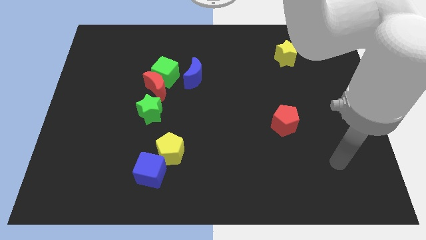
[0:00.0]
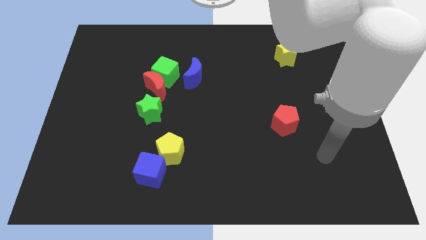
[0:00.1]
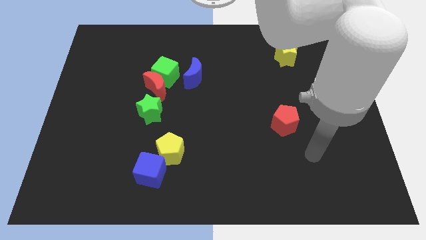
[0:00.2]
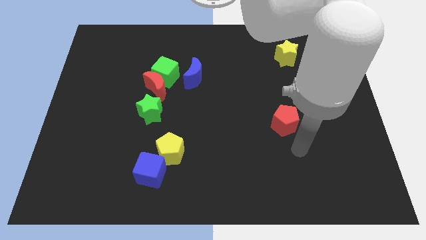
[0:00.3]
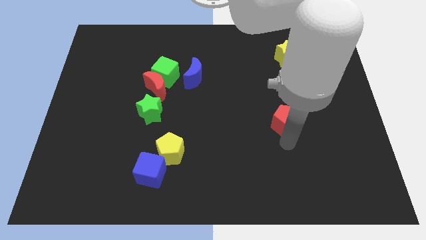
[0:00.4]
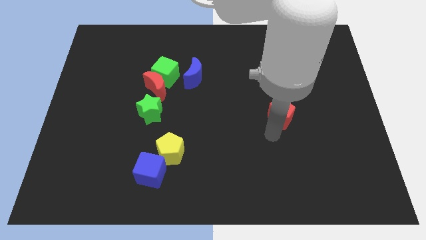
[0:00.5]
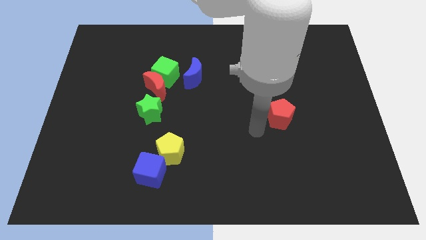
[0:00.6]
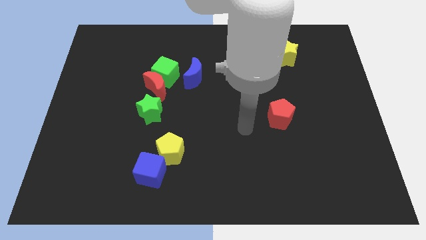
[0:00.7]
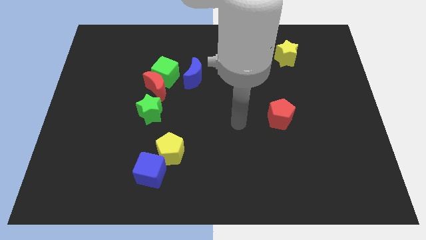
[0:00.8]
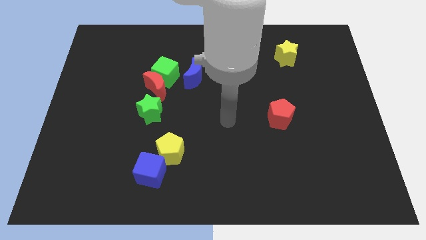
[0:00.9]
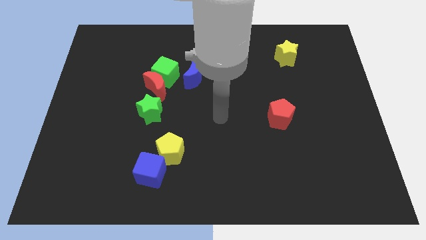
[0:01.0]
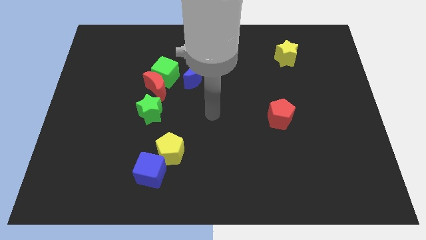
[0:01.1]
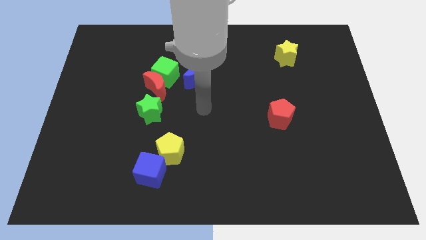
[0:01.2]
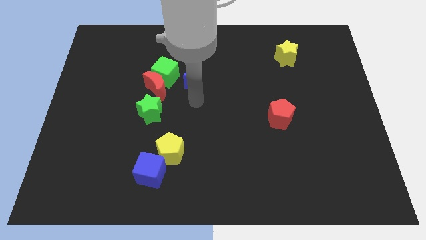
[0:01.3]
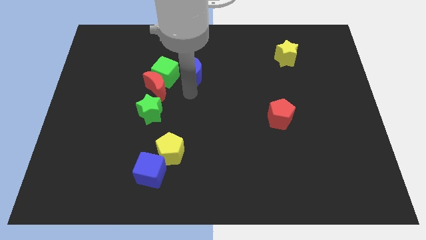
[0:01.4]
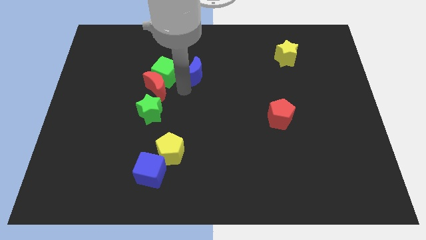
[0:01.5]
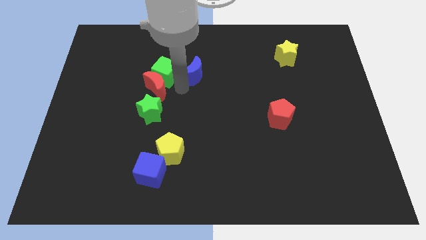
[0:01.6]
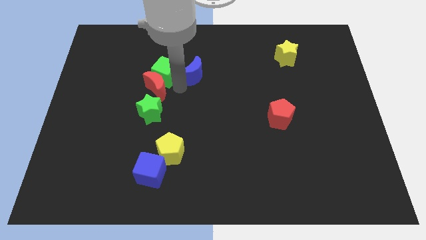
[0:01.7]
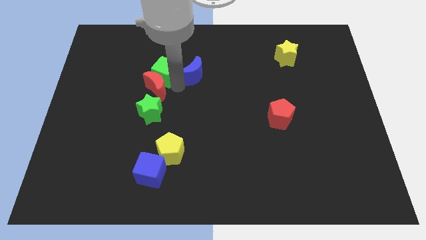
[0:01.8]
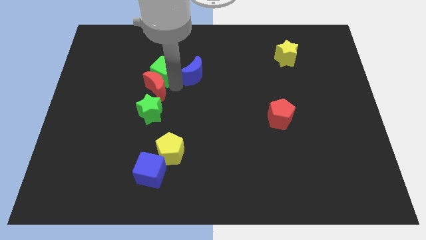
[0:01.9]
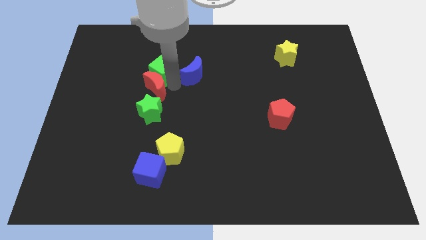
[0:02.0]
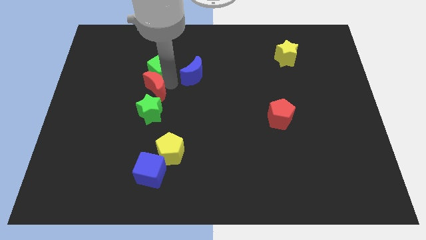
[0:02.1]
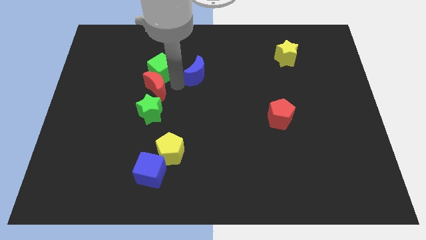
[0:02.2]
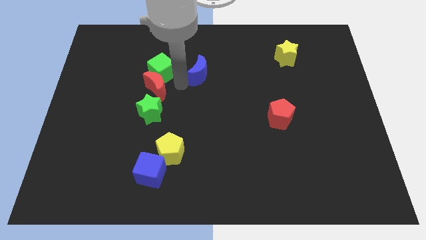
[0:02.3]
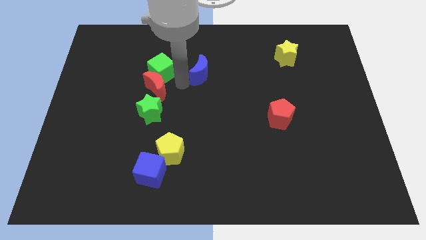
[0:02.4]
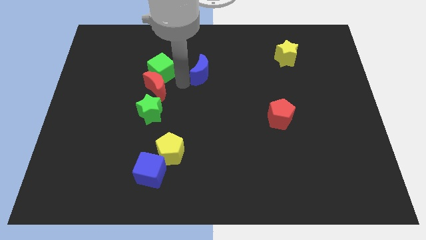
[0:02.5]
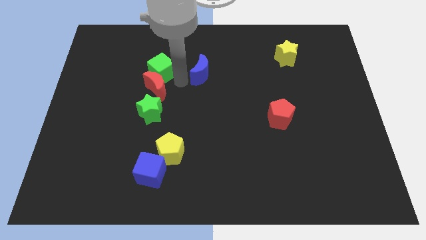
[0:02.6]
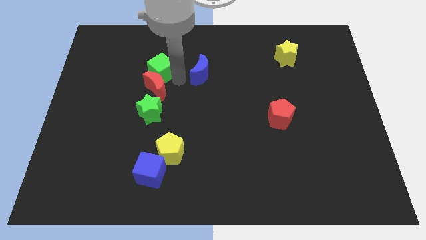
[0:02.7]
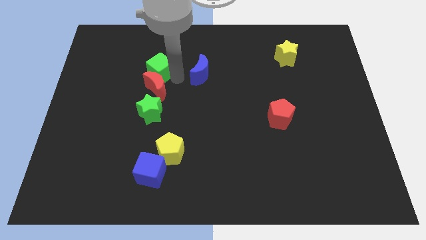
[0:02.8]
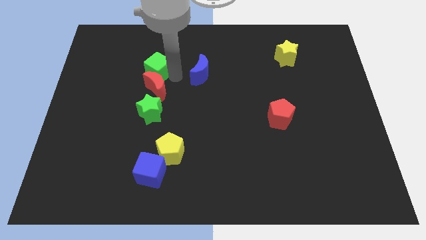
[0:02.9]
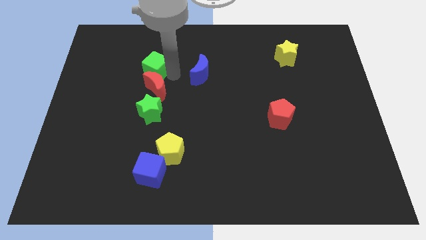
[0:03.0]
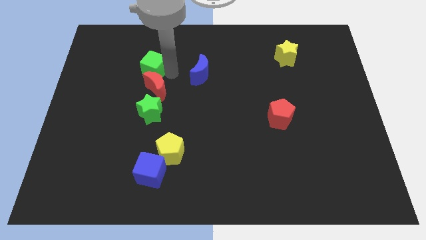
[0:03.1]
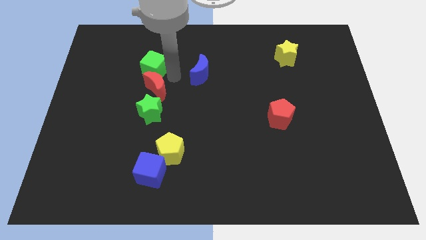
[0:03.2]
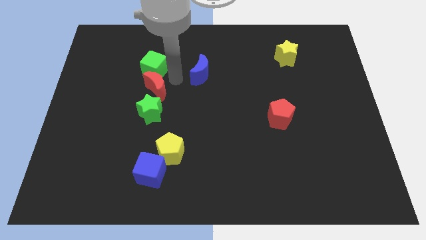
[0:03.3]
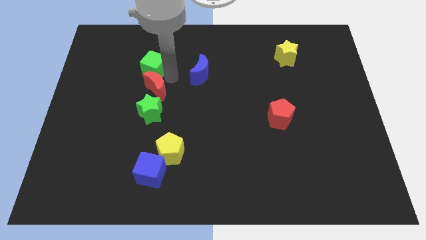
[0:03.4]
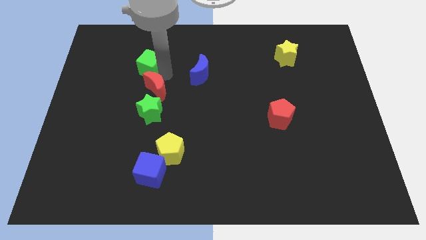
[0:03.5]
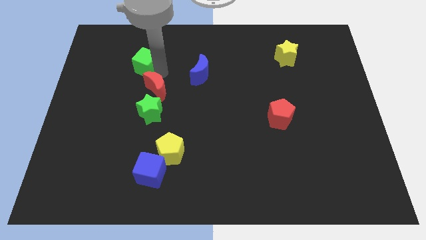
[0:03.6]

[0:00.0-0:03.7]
move the green cube away from the red moon and blue moon

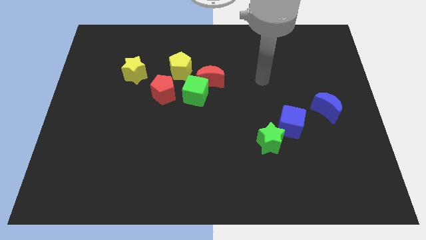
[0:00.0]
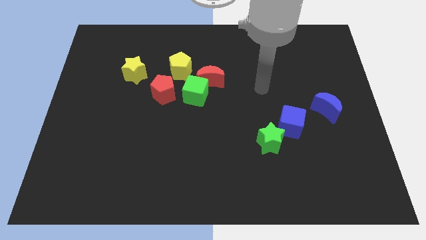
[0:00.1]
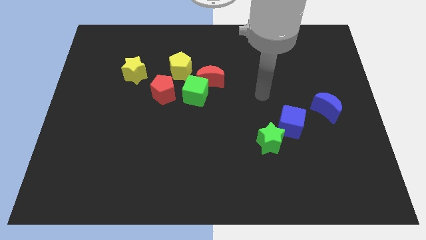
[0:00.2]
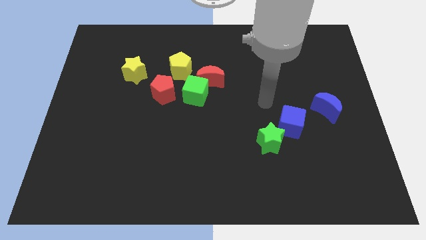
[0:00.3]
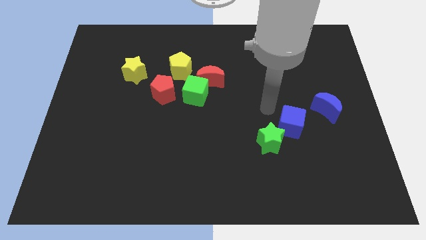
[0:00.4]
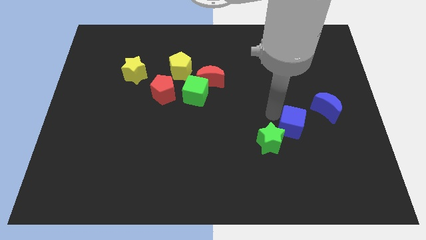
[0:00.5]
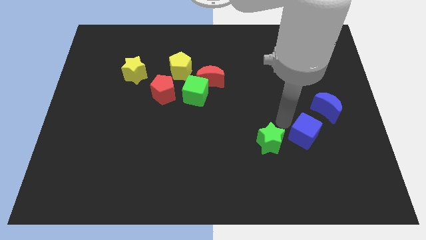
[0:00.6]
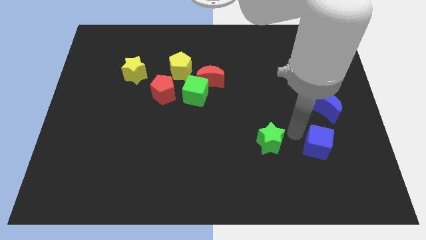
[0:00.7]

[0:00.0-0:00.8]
pull the green star apart from the blue cube

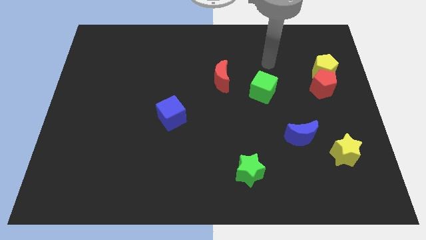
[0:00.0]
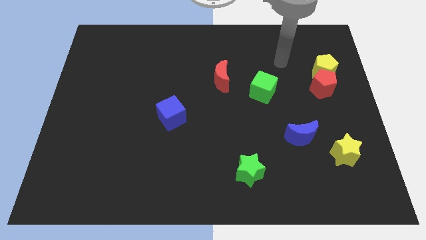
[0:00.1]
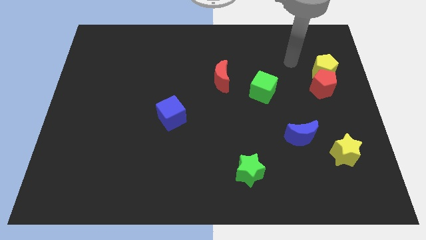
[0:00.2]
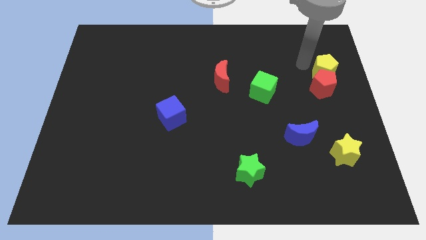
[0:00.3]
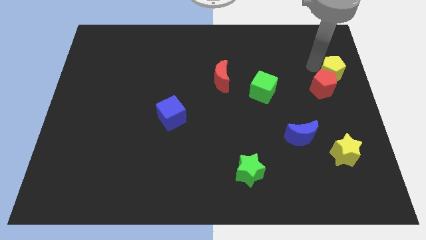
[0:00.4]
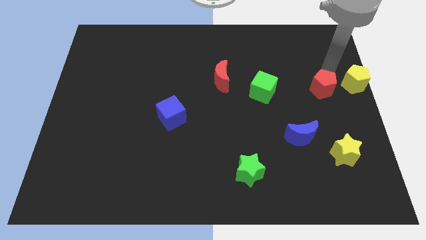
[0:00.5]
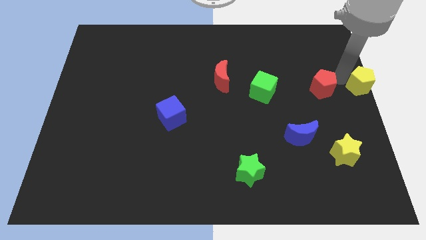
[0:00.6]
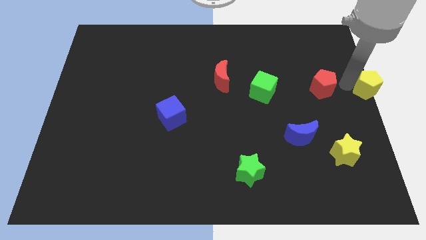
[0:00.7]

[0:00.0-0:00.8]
separate the red pentagon from the yellow pentagon

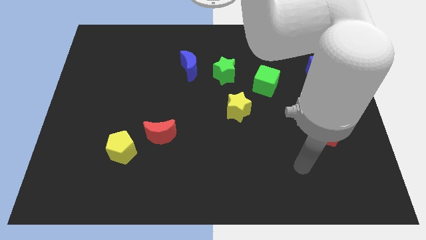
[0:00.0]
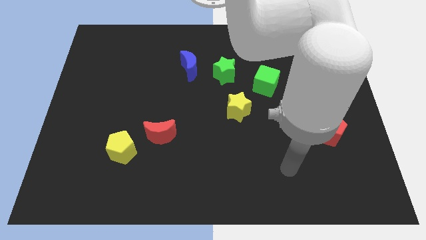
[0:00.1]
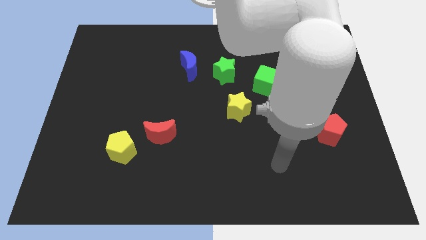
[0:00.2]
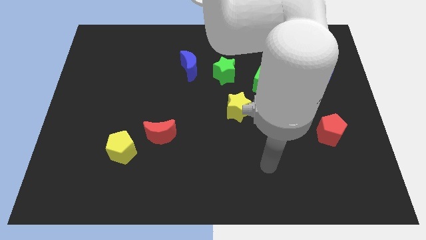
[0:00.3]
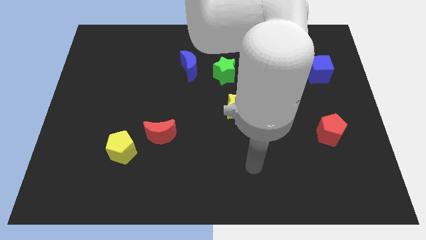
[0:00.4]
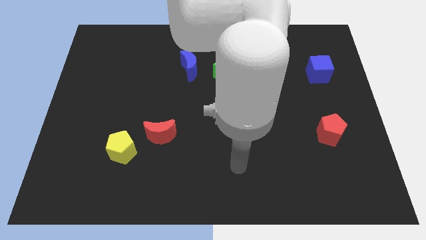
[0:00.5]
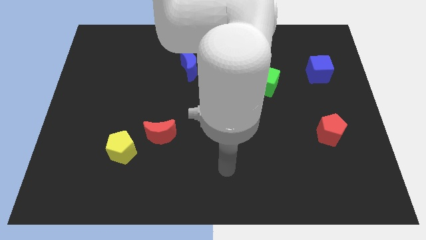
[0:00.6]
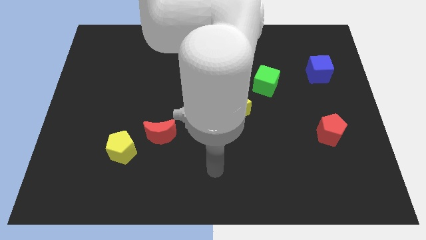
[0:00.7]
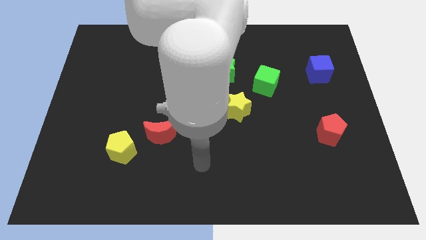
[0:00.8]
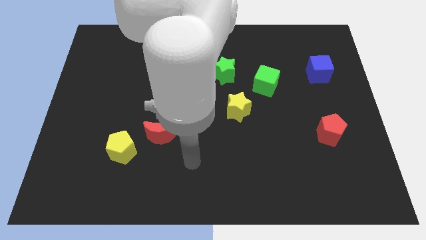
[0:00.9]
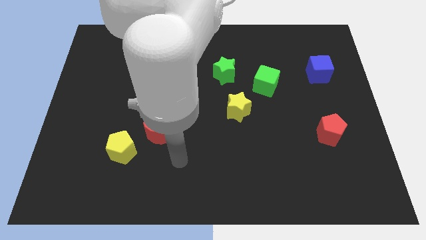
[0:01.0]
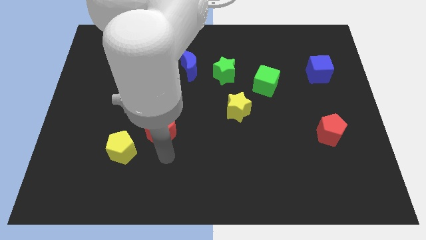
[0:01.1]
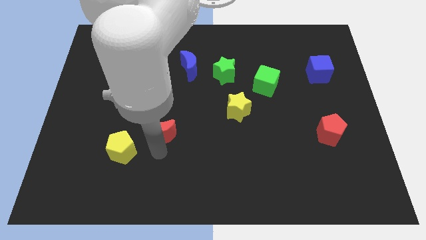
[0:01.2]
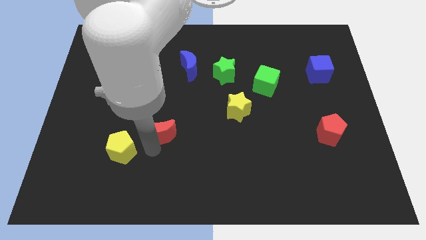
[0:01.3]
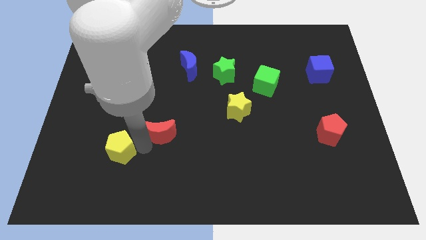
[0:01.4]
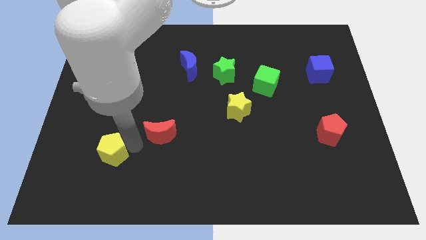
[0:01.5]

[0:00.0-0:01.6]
separate the red moon from the yellow pentagon

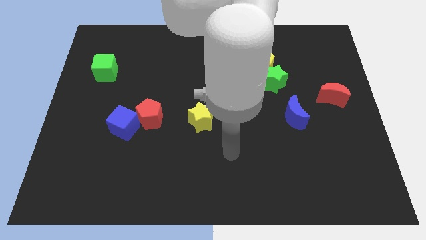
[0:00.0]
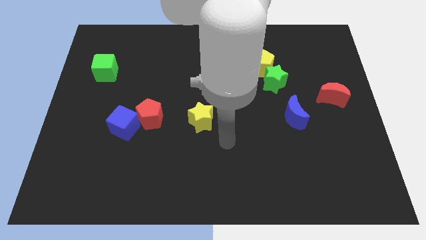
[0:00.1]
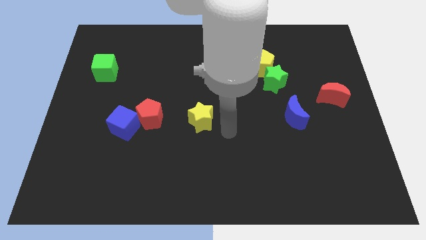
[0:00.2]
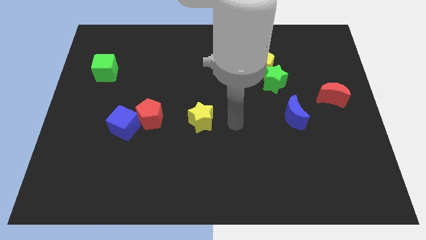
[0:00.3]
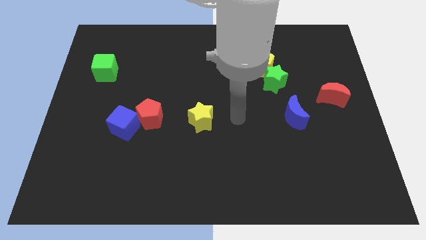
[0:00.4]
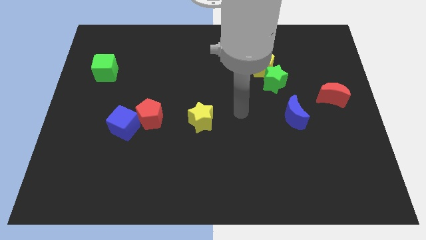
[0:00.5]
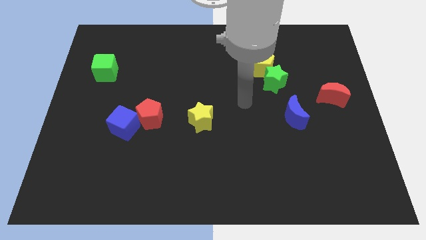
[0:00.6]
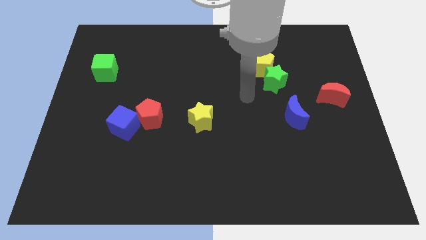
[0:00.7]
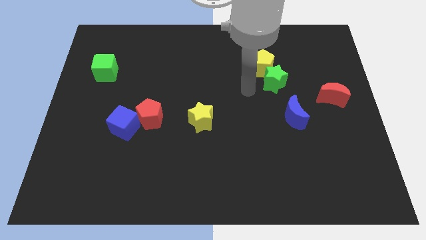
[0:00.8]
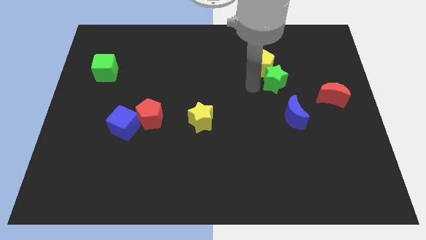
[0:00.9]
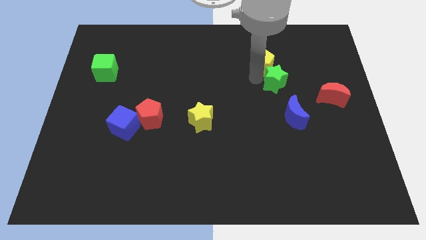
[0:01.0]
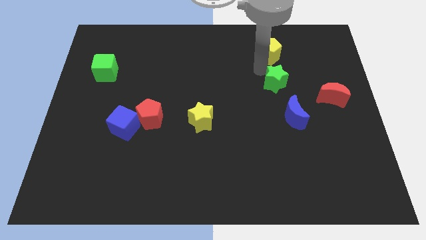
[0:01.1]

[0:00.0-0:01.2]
separate the green star from the yellow pentagon

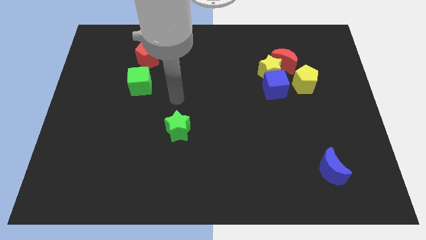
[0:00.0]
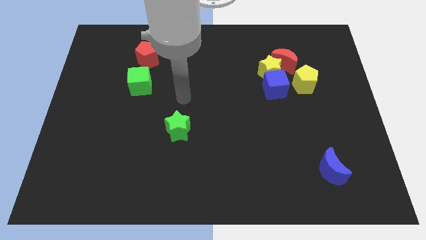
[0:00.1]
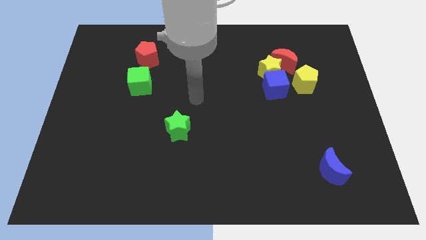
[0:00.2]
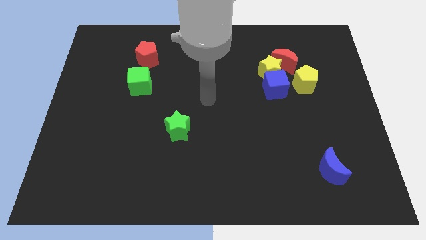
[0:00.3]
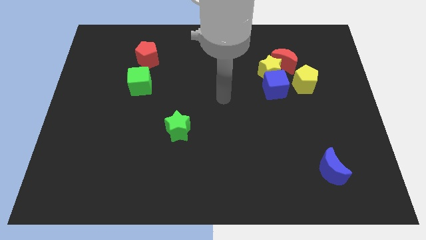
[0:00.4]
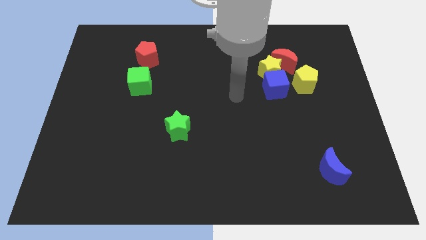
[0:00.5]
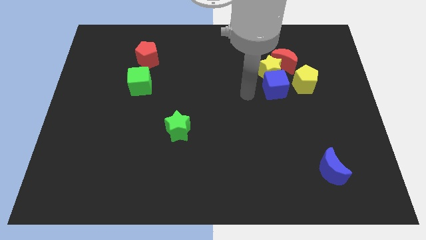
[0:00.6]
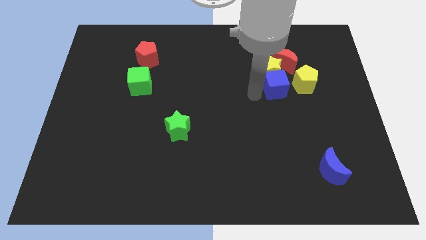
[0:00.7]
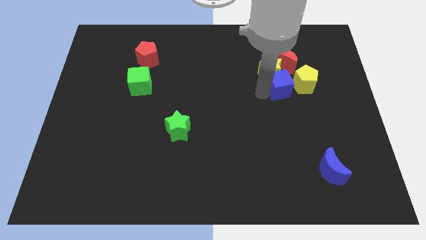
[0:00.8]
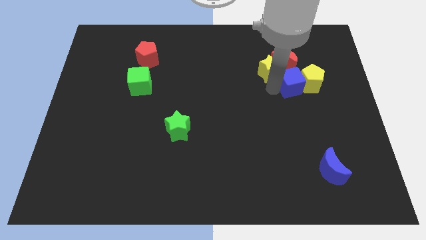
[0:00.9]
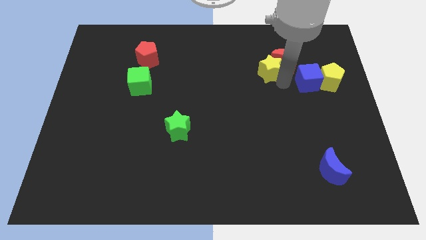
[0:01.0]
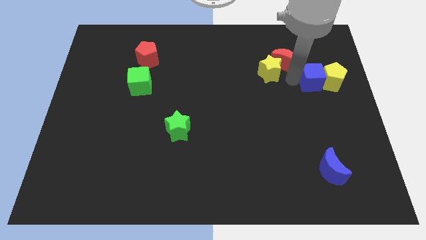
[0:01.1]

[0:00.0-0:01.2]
pull the yellow star apart from the group
